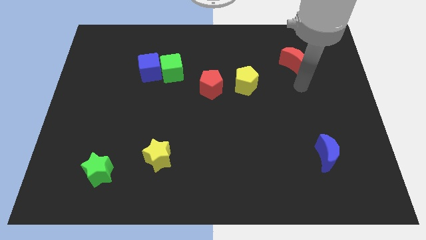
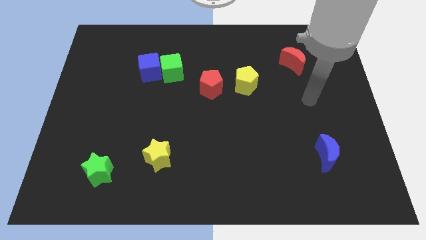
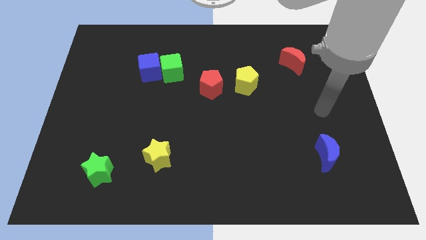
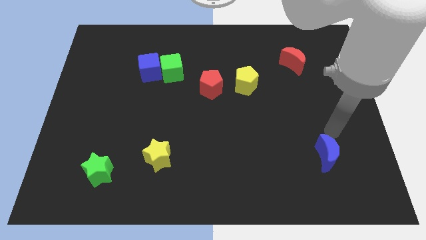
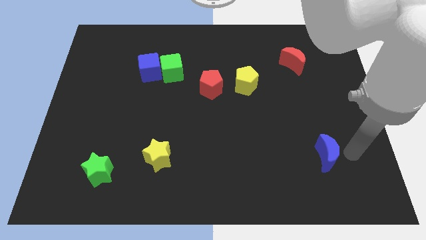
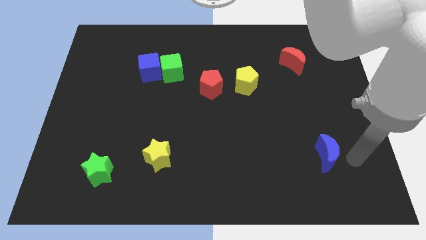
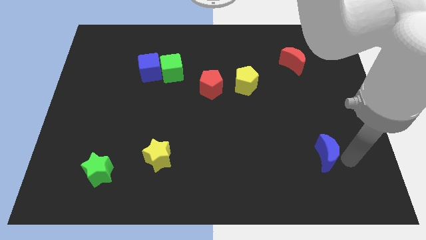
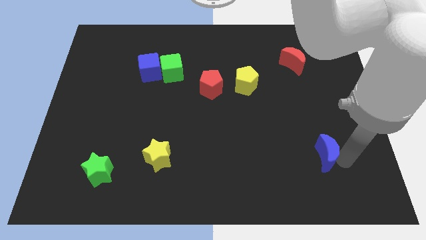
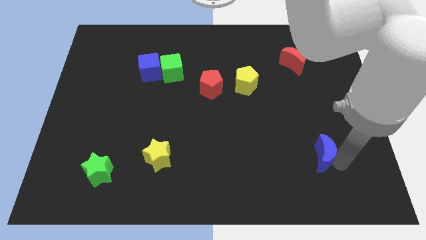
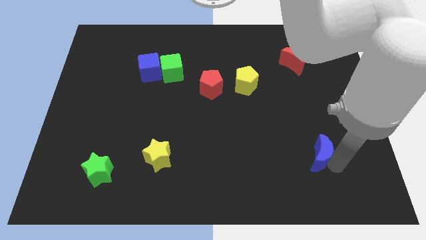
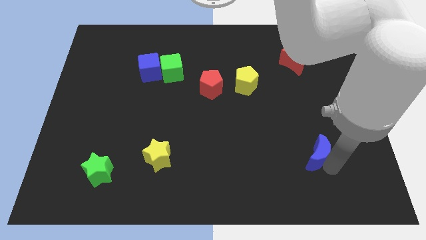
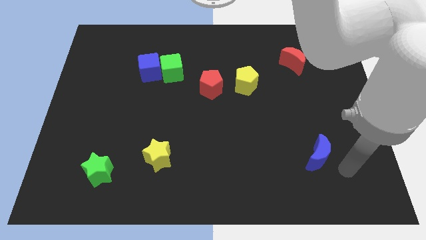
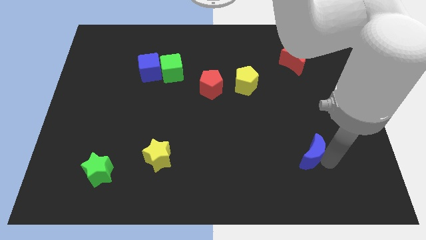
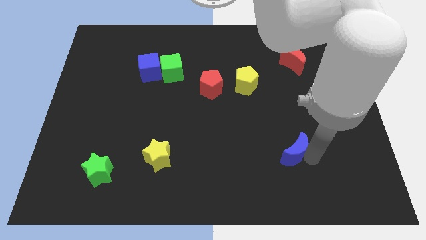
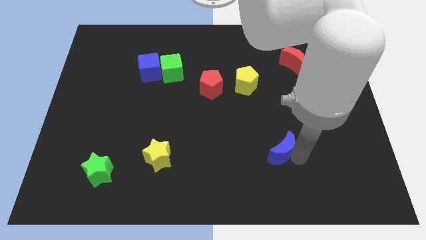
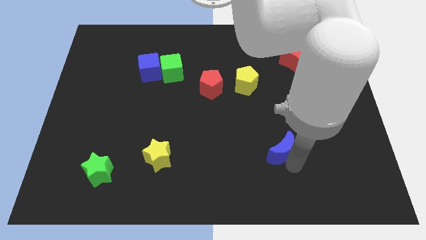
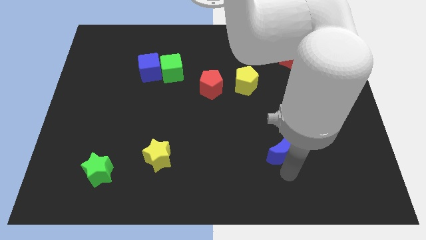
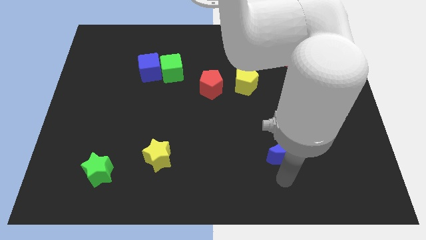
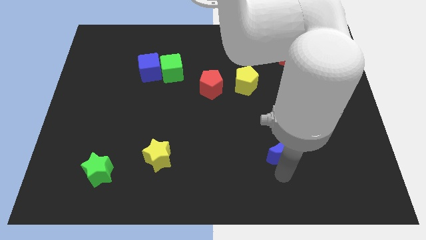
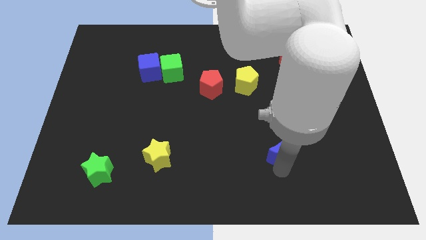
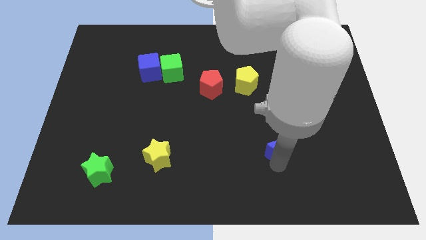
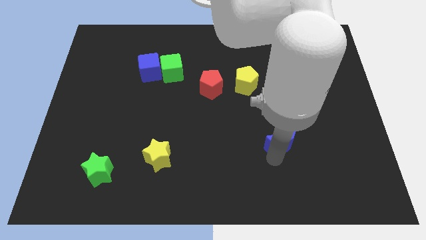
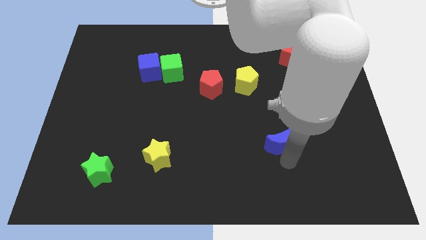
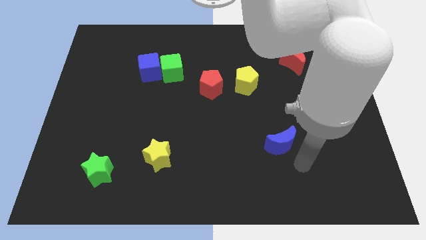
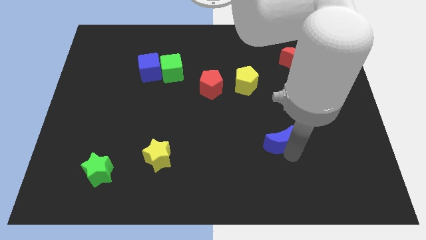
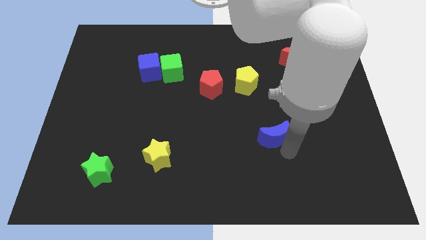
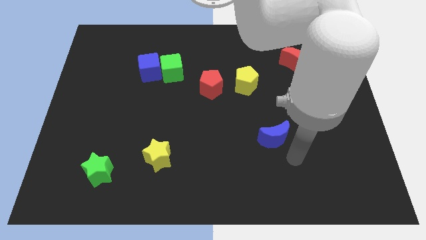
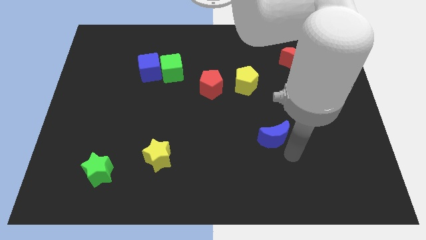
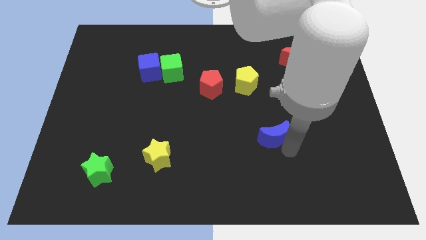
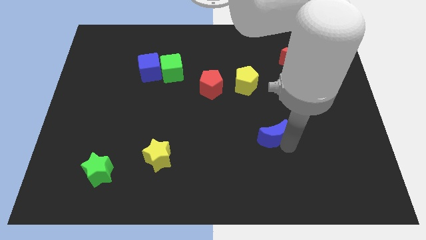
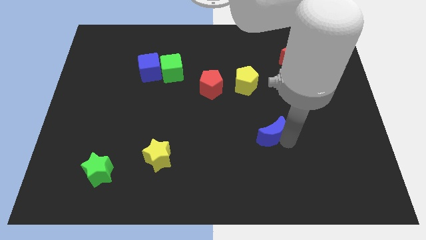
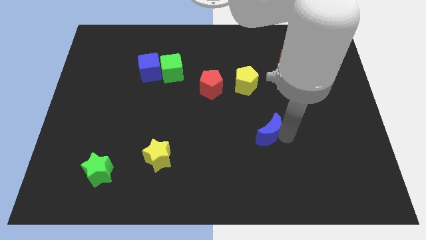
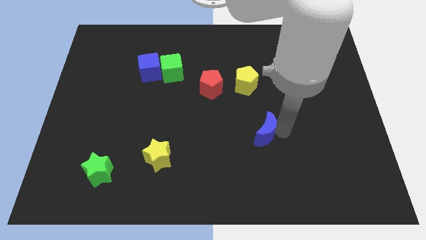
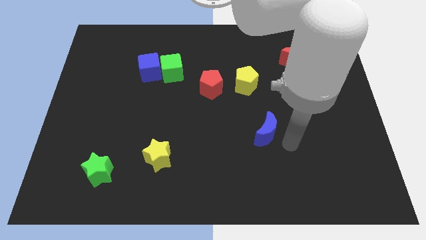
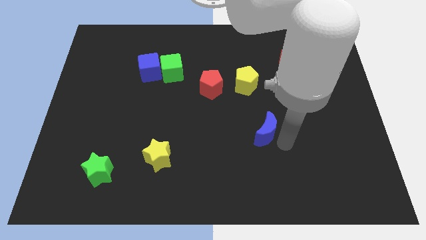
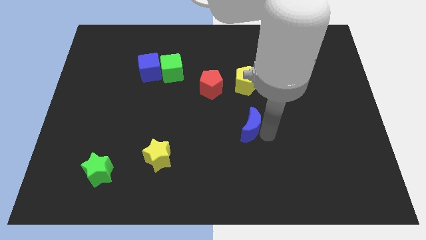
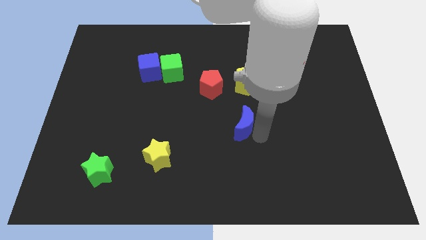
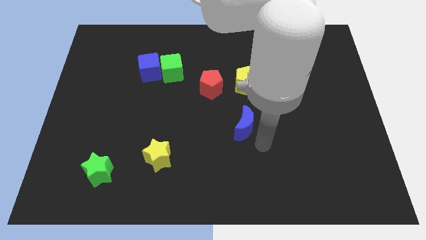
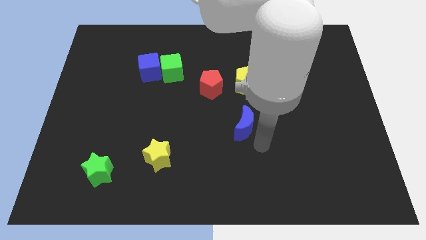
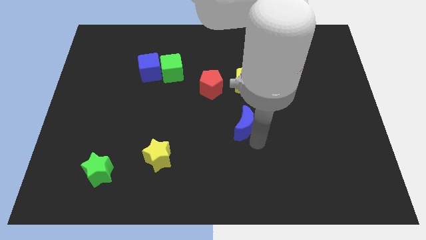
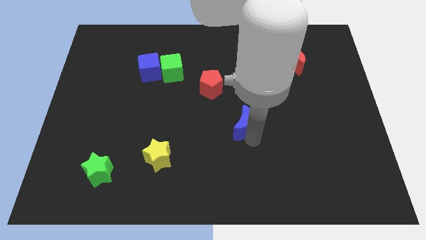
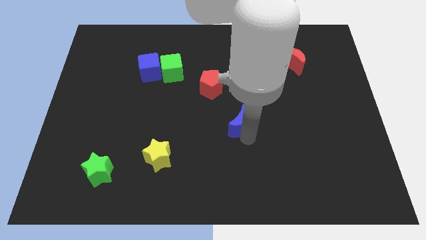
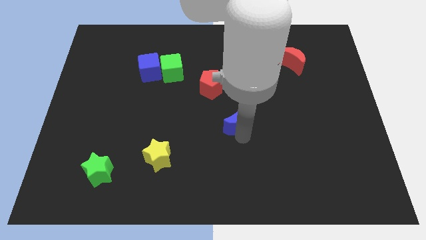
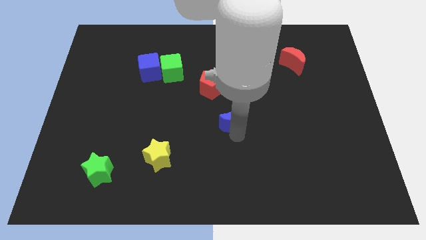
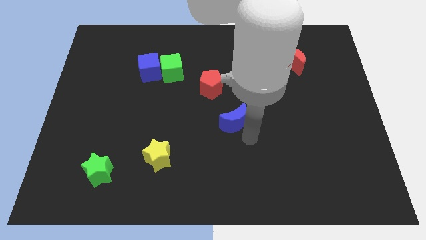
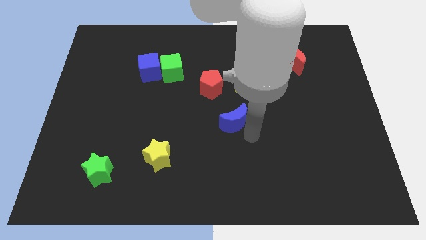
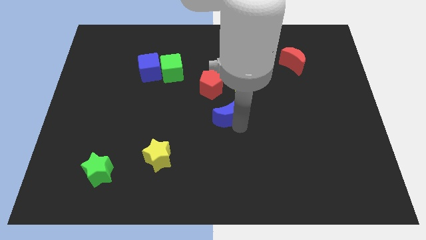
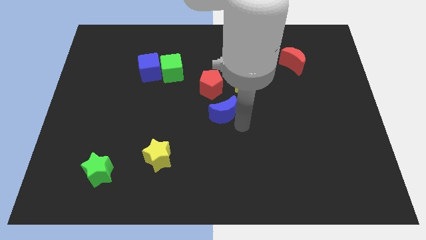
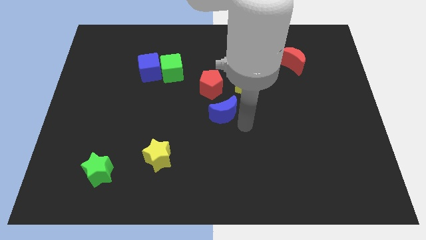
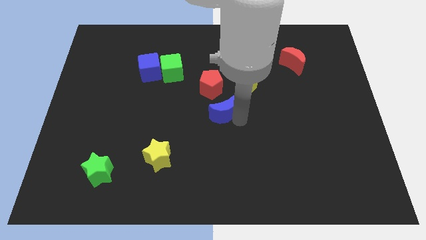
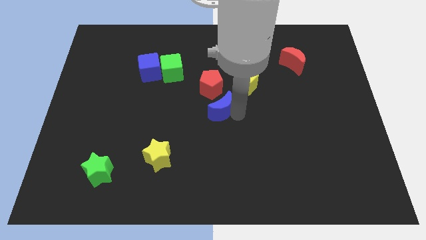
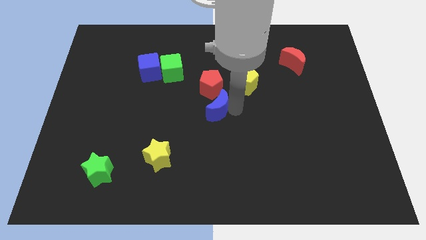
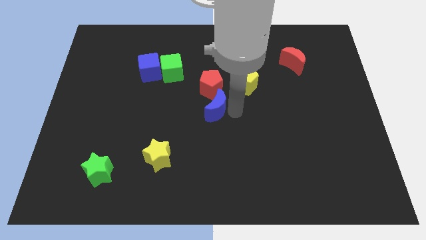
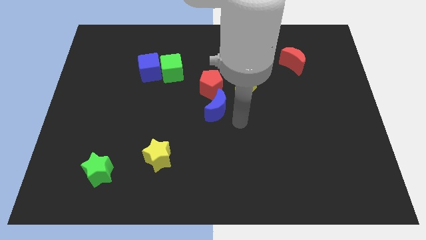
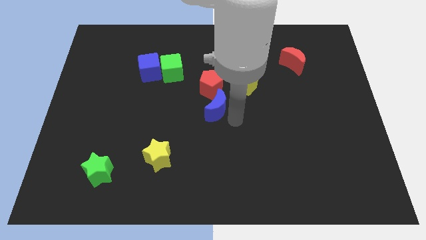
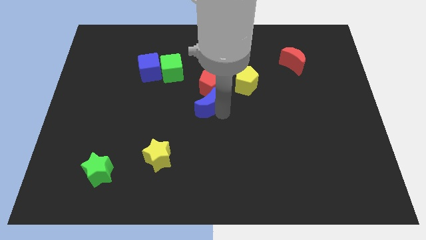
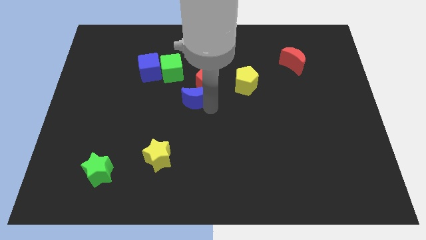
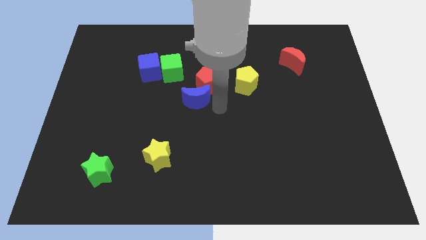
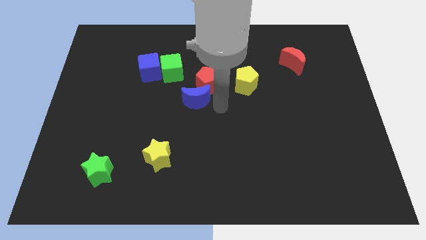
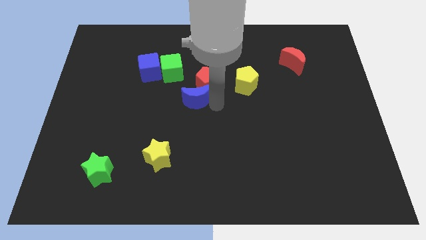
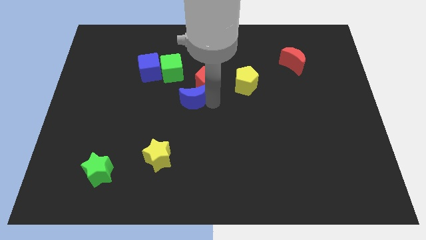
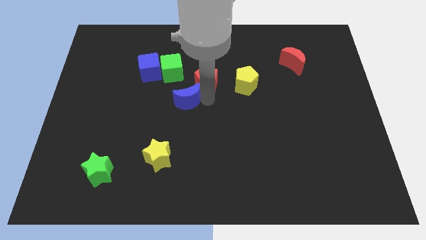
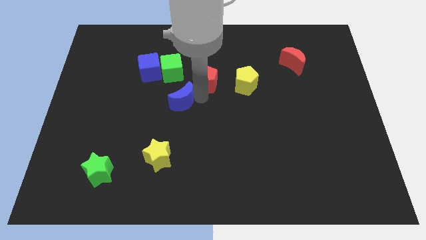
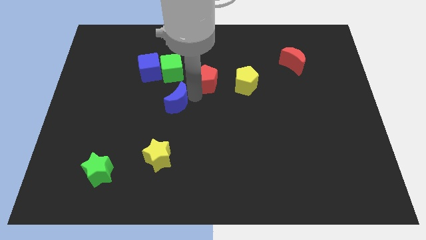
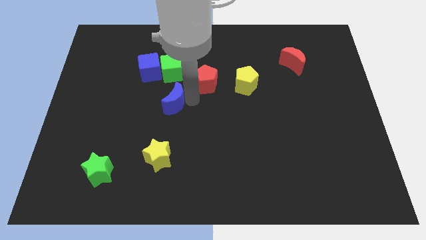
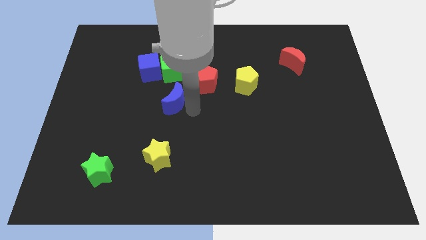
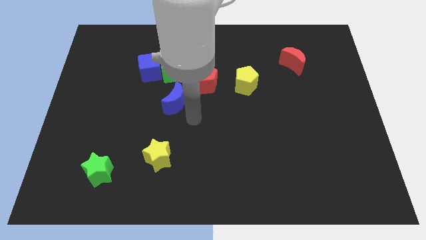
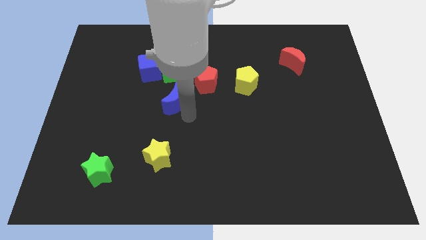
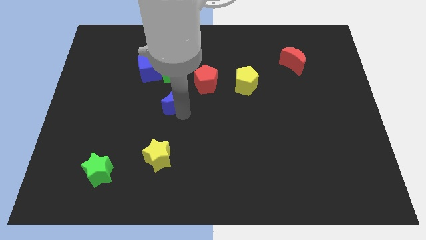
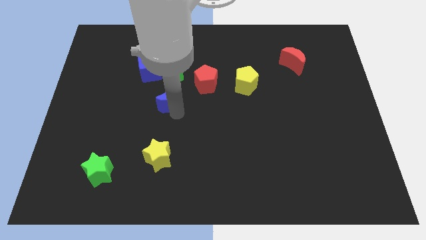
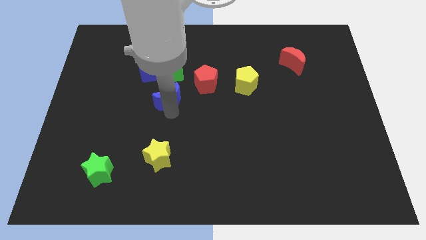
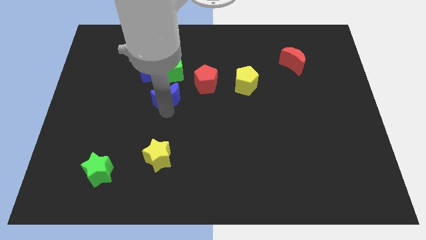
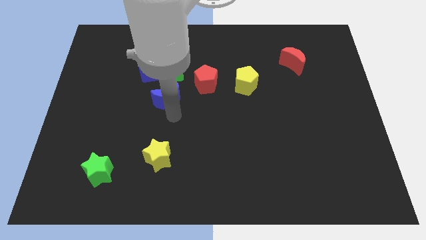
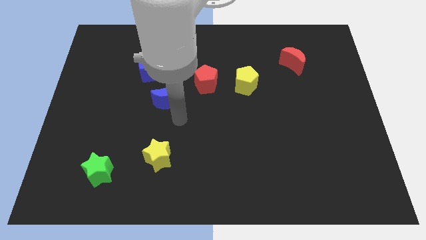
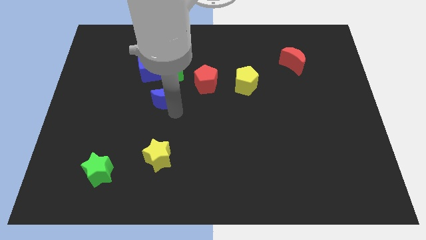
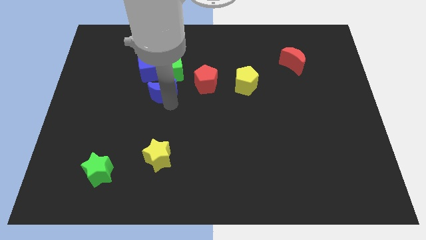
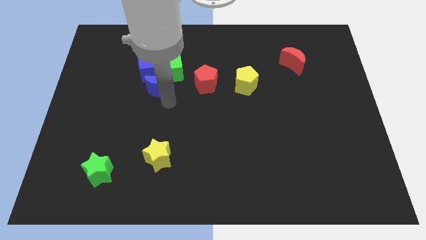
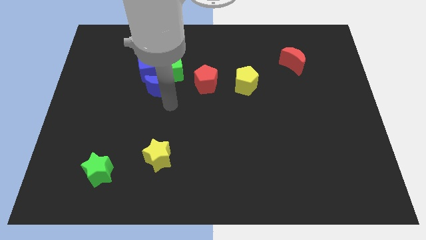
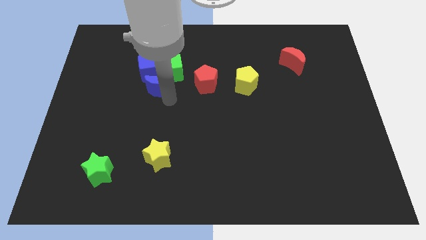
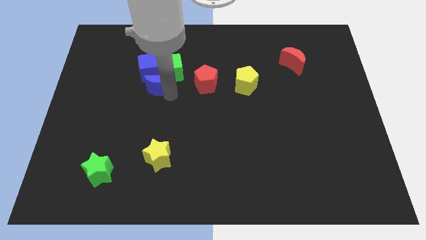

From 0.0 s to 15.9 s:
put the blue moon close to the blue cube
